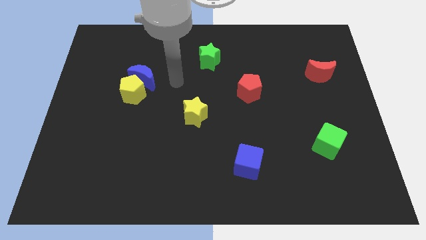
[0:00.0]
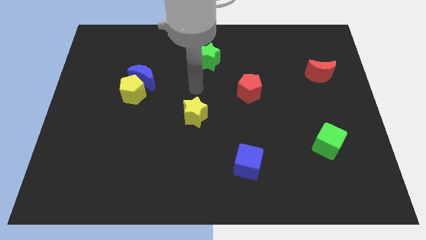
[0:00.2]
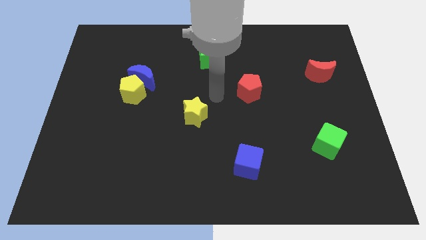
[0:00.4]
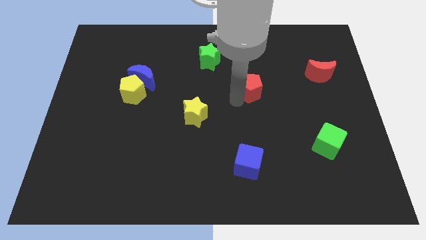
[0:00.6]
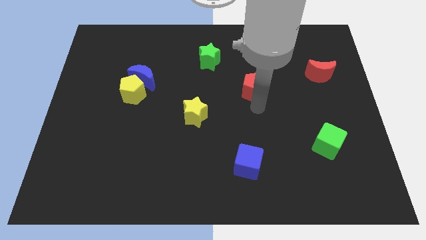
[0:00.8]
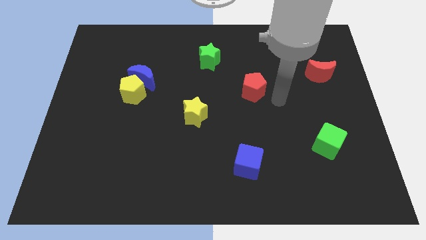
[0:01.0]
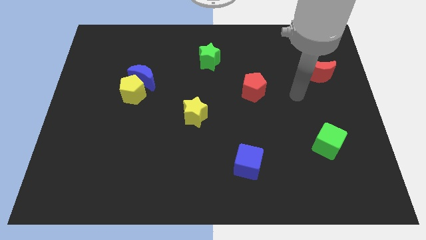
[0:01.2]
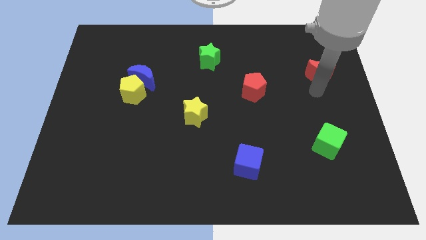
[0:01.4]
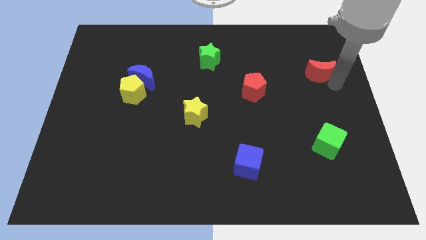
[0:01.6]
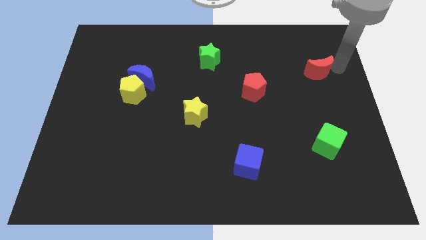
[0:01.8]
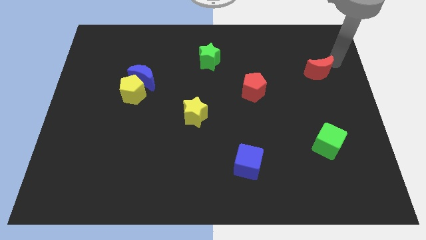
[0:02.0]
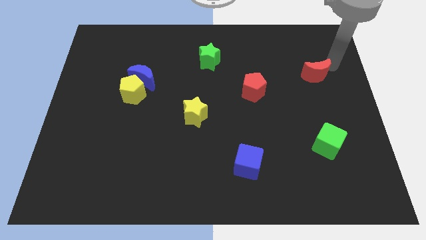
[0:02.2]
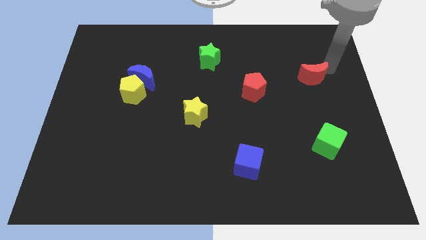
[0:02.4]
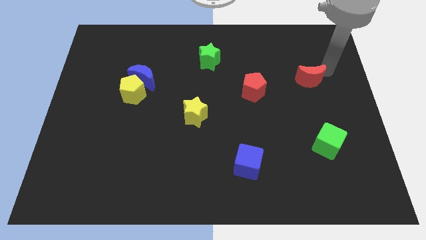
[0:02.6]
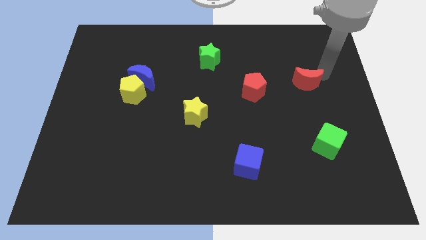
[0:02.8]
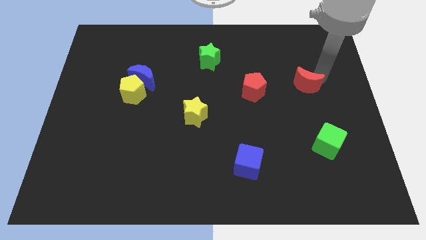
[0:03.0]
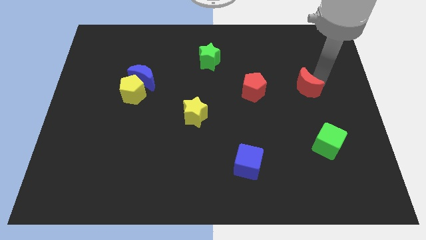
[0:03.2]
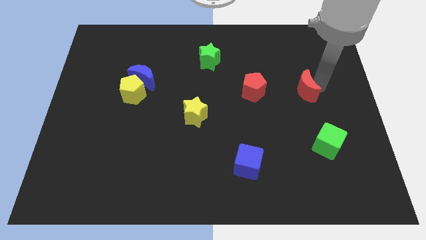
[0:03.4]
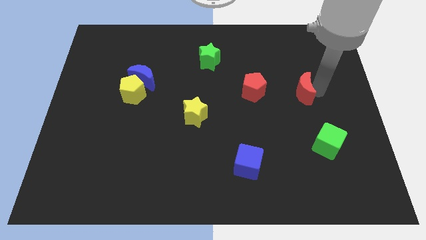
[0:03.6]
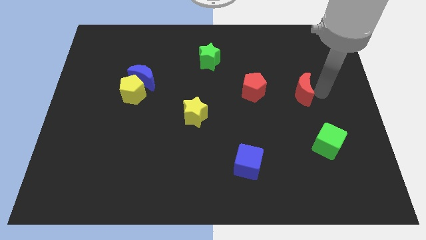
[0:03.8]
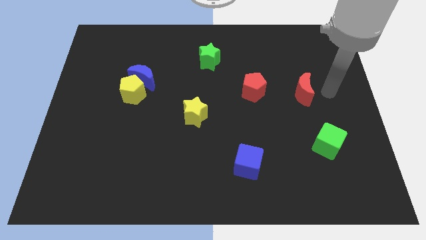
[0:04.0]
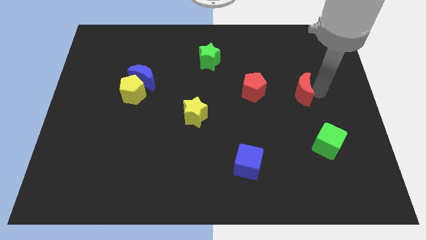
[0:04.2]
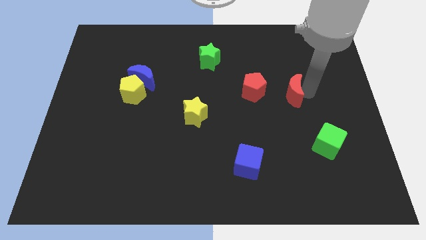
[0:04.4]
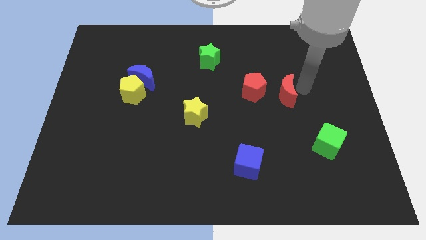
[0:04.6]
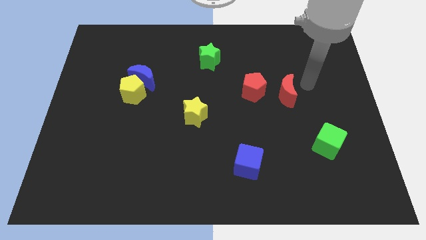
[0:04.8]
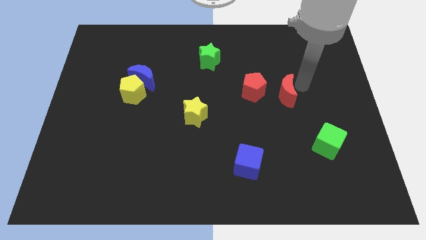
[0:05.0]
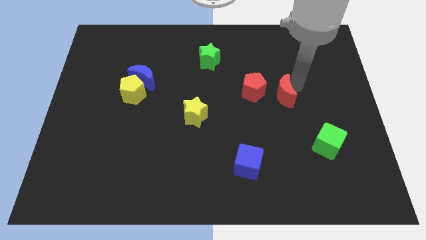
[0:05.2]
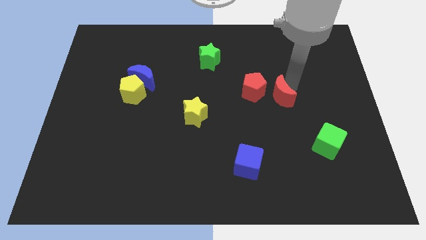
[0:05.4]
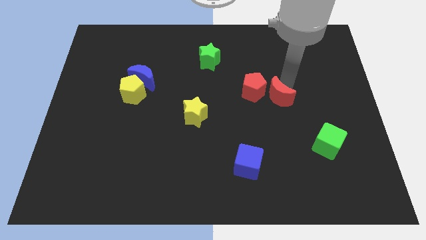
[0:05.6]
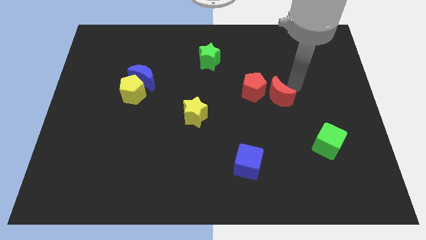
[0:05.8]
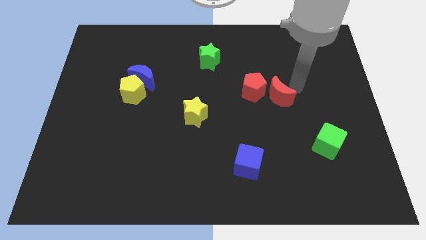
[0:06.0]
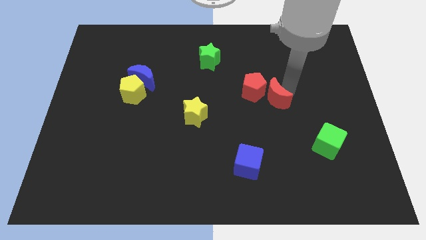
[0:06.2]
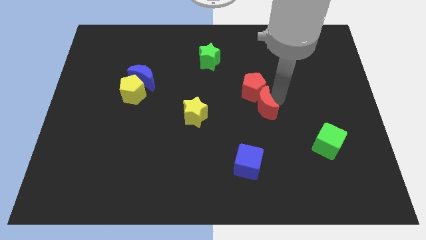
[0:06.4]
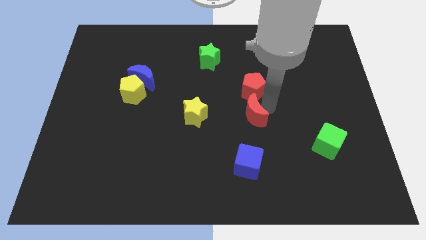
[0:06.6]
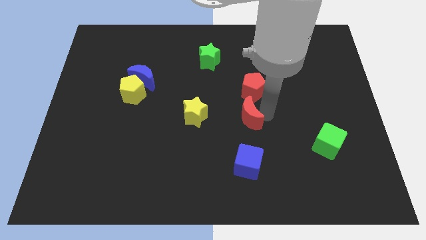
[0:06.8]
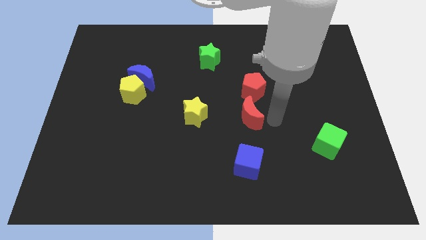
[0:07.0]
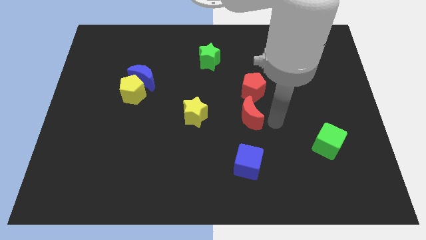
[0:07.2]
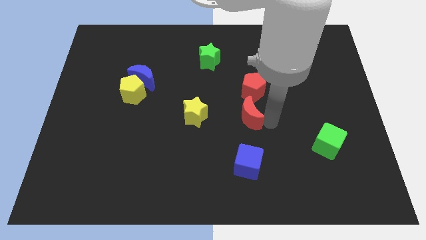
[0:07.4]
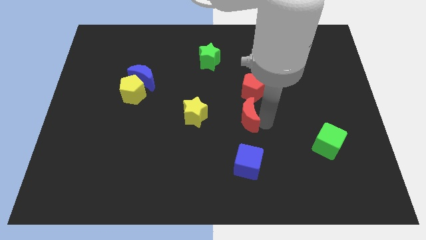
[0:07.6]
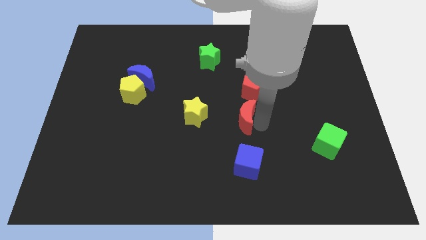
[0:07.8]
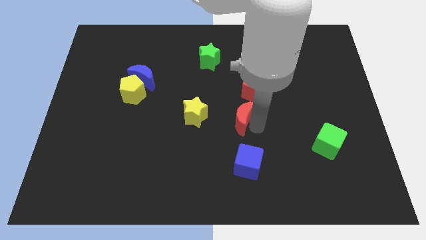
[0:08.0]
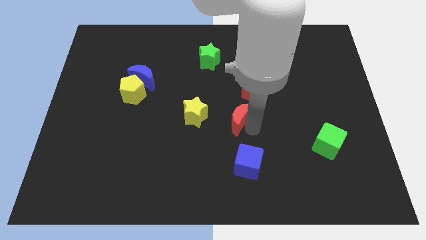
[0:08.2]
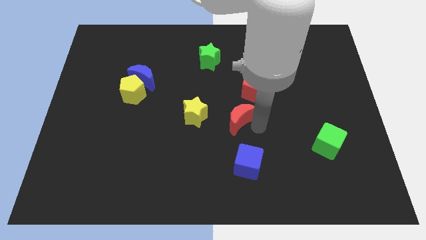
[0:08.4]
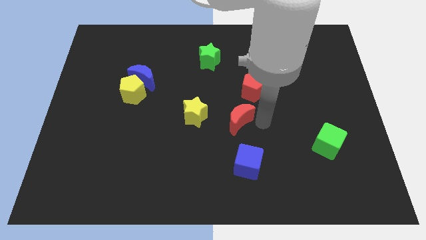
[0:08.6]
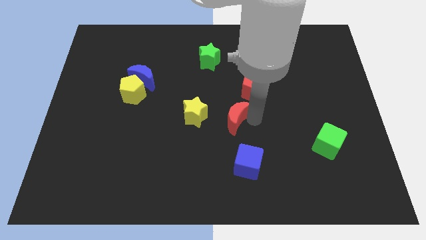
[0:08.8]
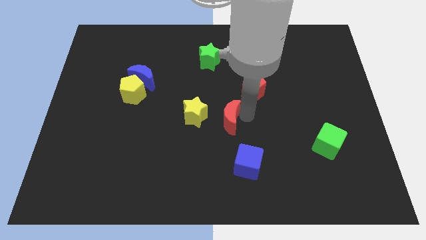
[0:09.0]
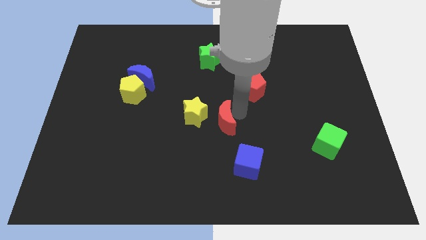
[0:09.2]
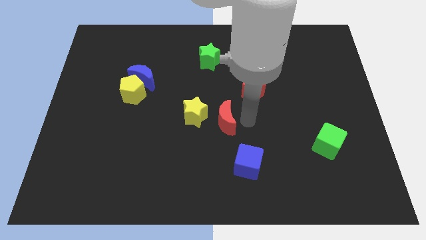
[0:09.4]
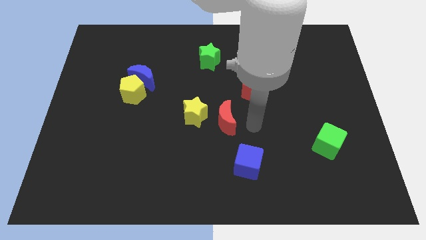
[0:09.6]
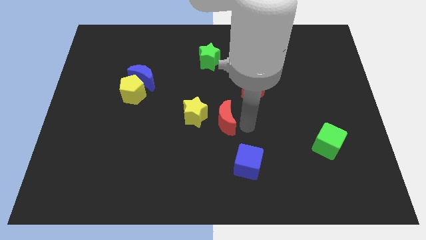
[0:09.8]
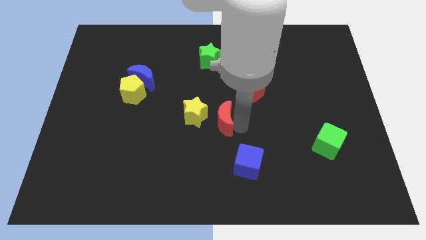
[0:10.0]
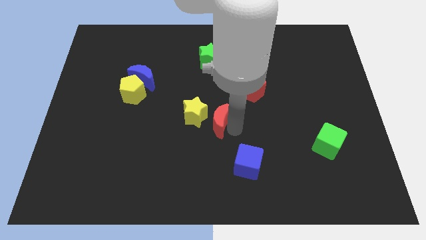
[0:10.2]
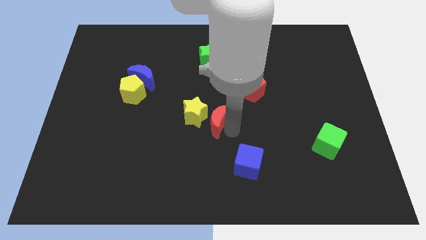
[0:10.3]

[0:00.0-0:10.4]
put the red moon to the yellow star

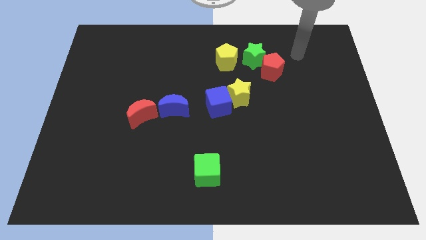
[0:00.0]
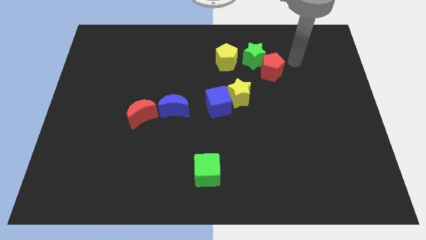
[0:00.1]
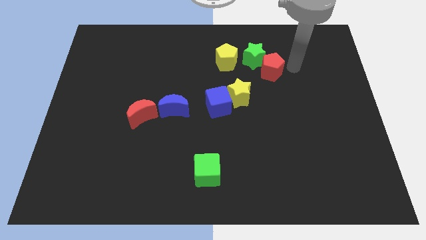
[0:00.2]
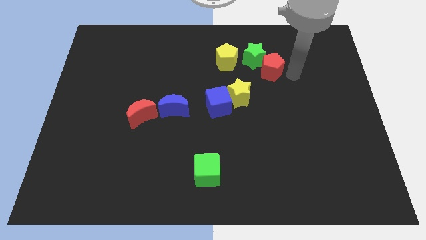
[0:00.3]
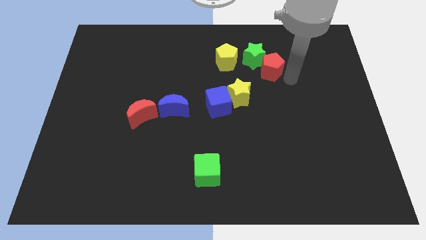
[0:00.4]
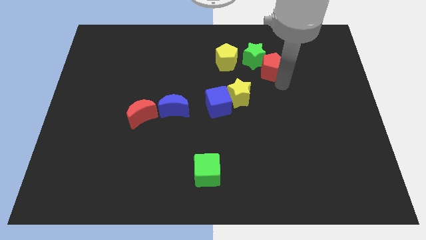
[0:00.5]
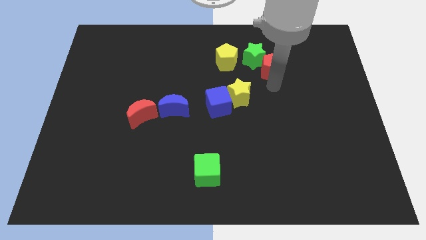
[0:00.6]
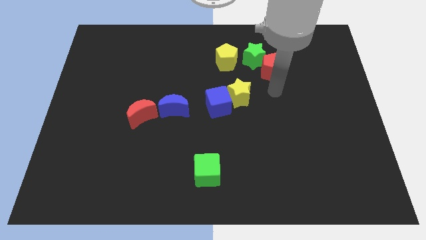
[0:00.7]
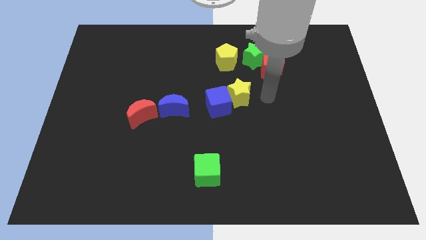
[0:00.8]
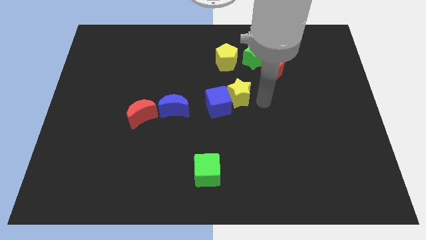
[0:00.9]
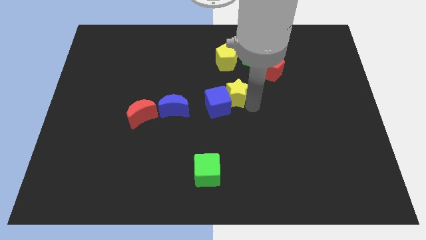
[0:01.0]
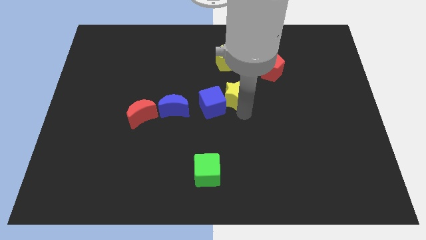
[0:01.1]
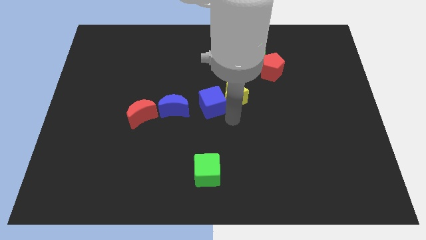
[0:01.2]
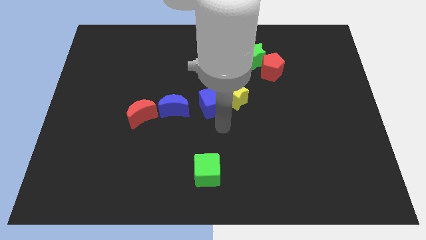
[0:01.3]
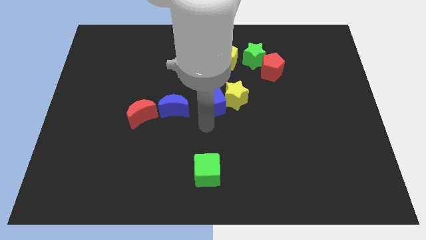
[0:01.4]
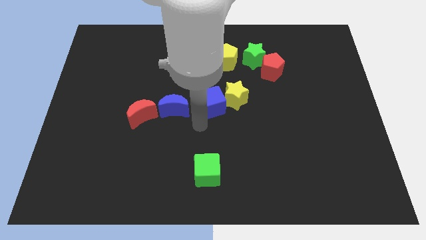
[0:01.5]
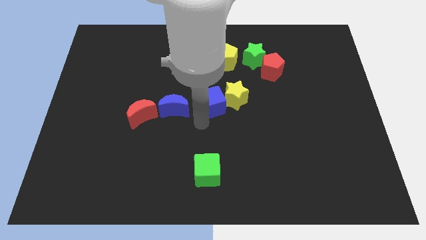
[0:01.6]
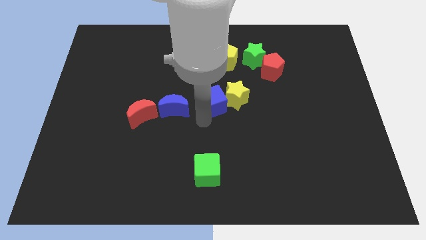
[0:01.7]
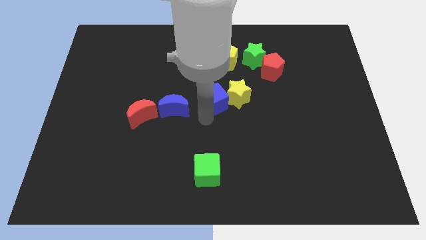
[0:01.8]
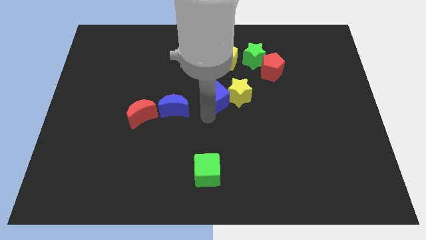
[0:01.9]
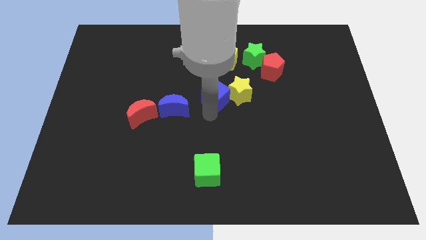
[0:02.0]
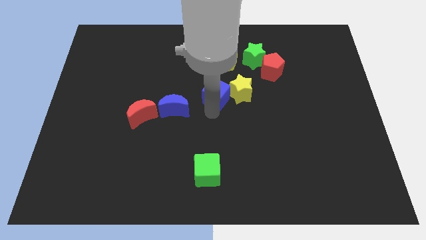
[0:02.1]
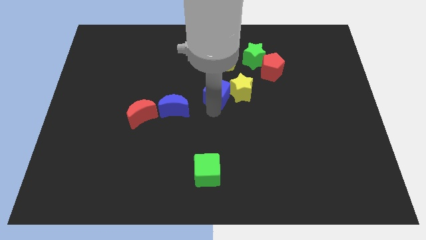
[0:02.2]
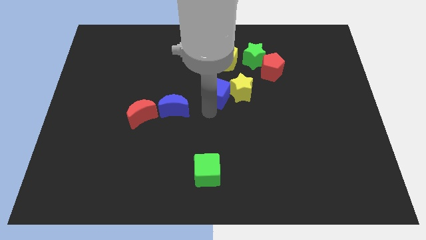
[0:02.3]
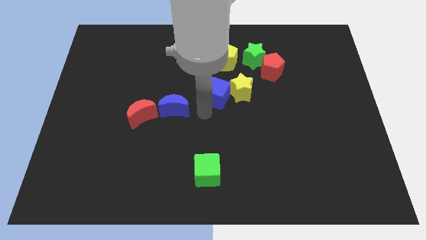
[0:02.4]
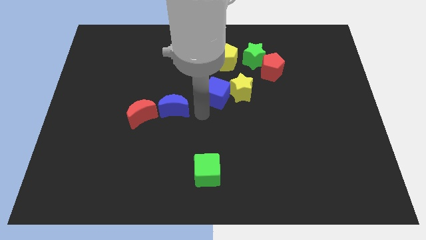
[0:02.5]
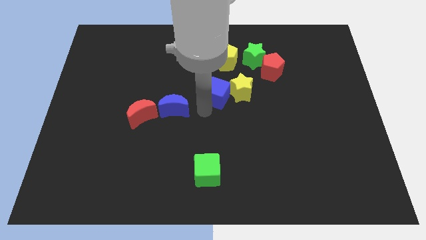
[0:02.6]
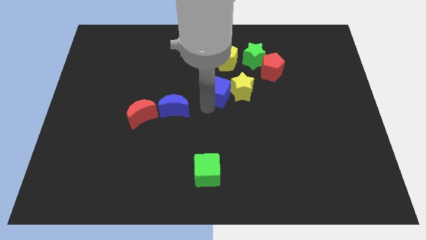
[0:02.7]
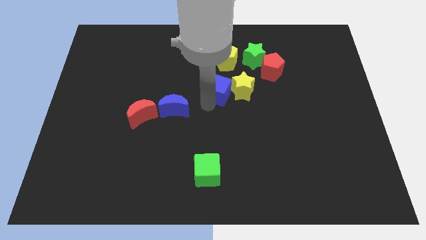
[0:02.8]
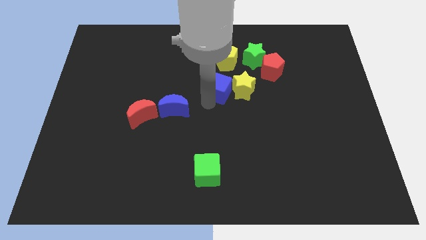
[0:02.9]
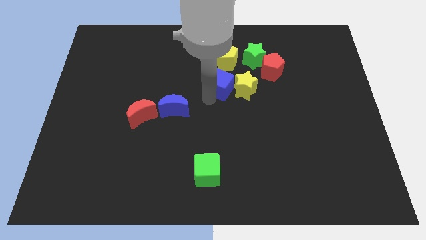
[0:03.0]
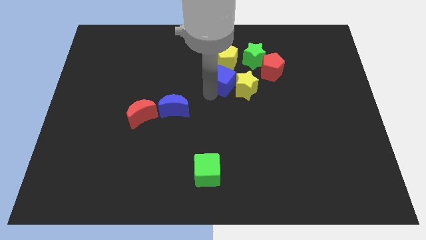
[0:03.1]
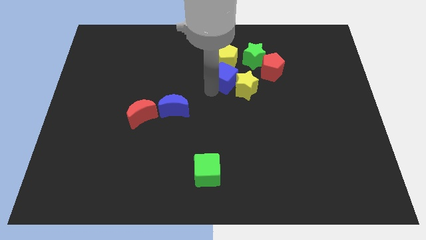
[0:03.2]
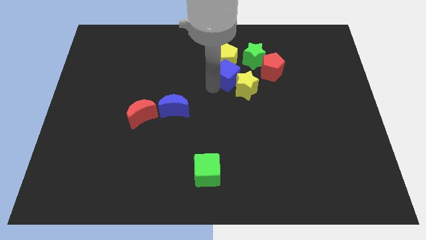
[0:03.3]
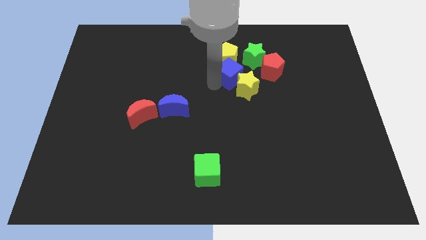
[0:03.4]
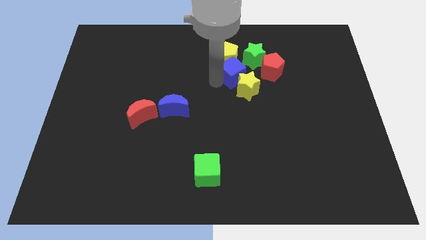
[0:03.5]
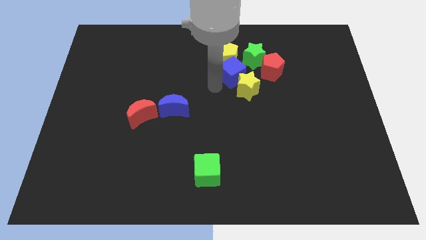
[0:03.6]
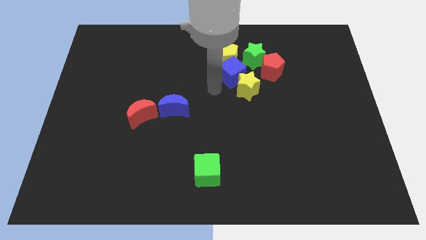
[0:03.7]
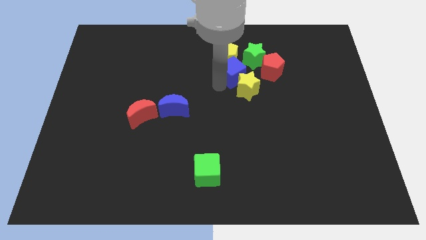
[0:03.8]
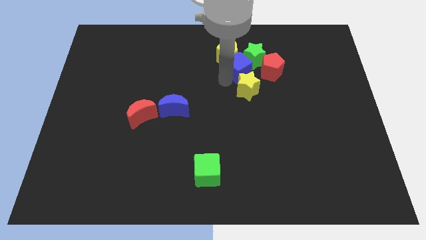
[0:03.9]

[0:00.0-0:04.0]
push the blue cube towards the green star
